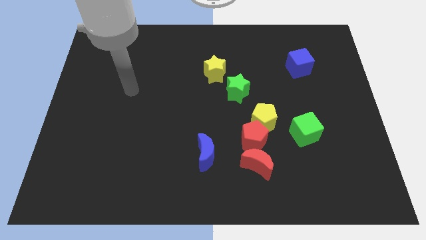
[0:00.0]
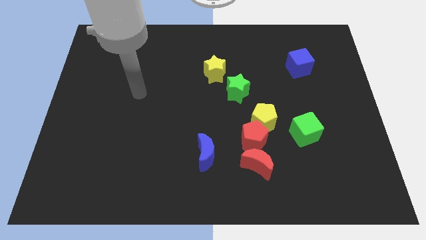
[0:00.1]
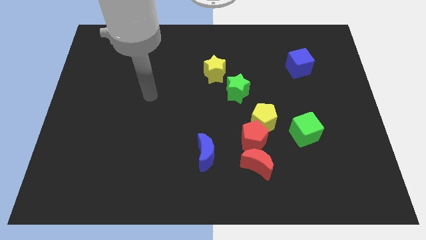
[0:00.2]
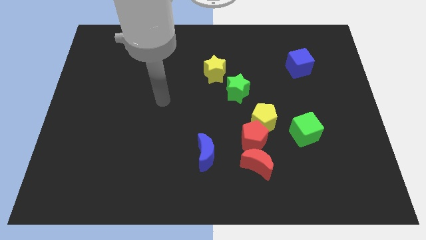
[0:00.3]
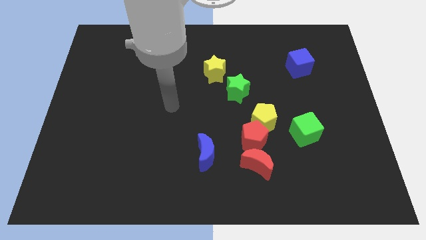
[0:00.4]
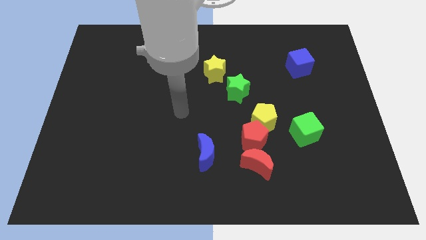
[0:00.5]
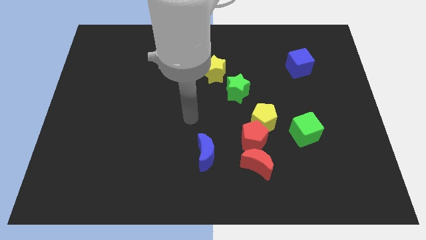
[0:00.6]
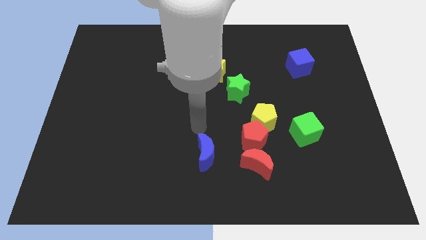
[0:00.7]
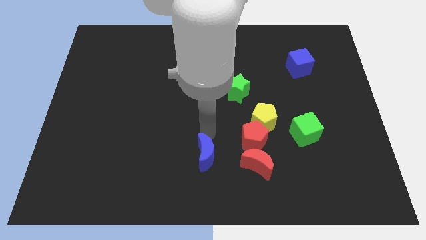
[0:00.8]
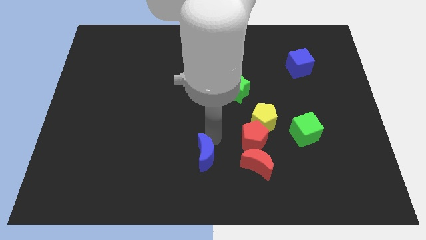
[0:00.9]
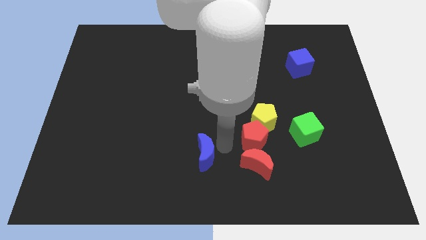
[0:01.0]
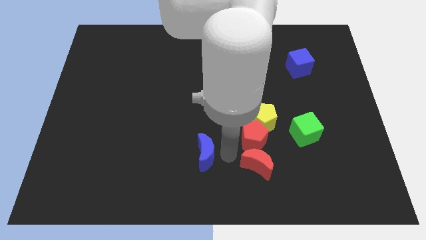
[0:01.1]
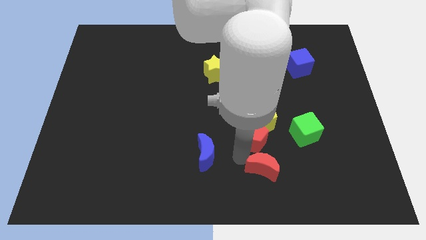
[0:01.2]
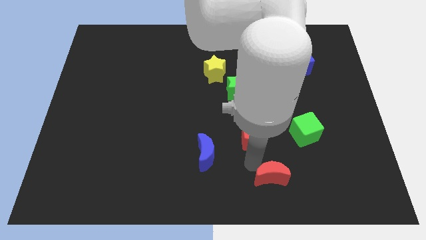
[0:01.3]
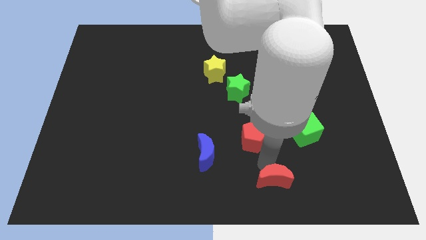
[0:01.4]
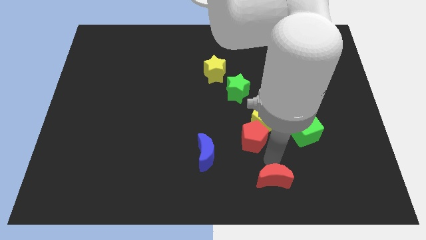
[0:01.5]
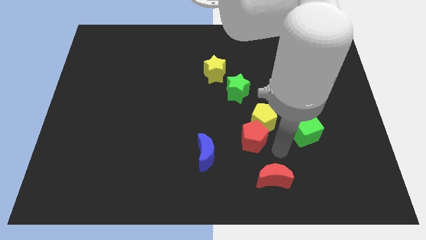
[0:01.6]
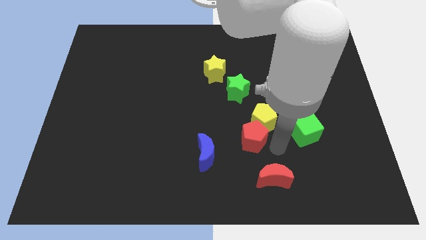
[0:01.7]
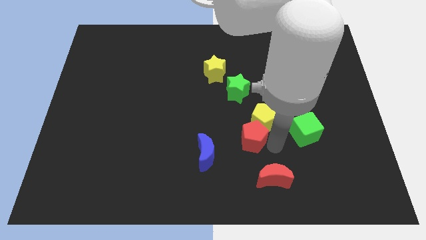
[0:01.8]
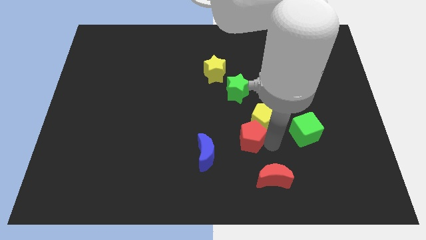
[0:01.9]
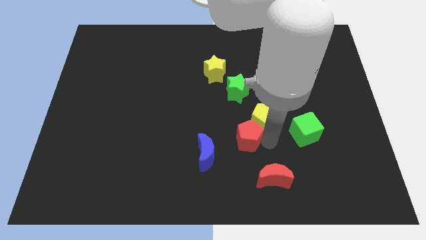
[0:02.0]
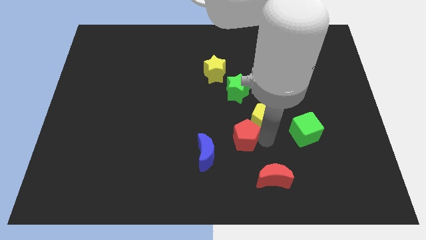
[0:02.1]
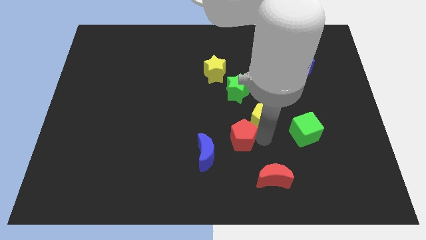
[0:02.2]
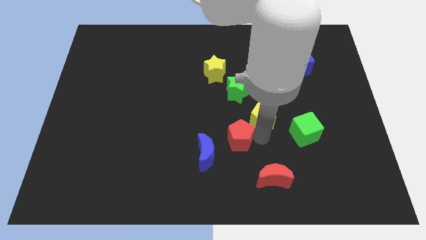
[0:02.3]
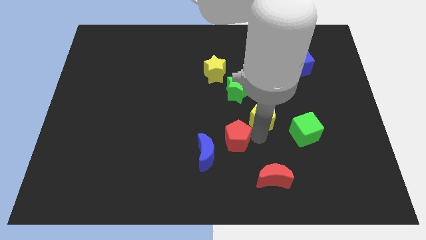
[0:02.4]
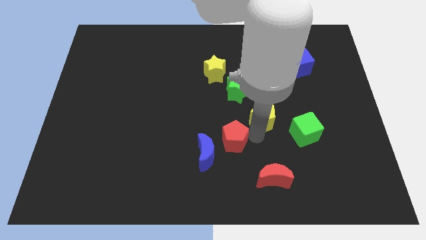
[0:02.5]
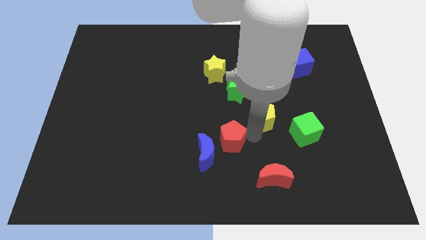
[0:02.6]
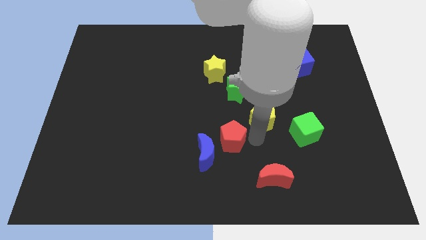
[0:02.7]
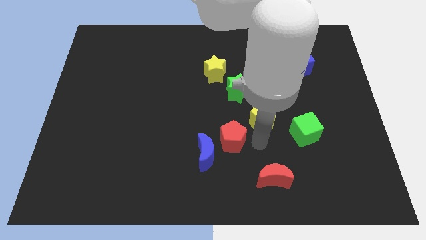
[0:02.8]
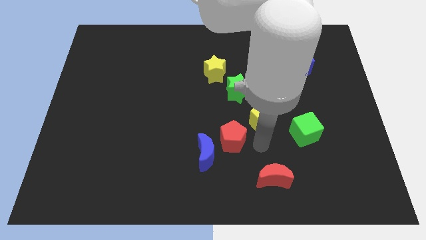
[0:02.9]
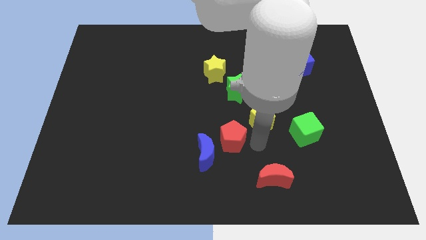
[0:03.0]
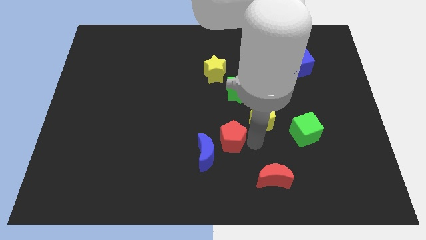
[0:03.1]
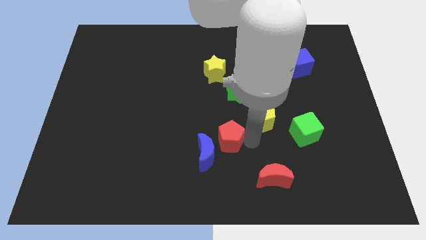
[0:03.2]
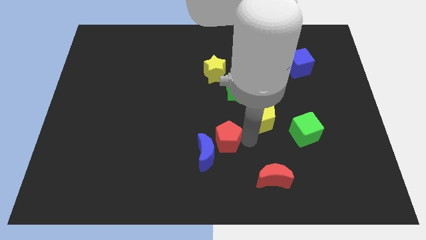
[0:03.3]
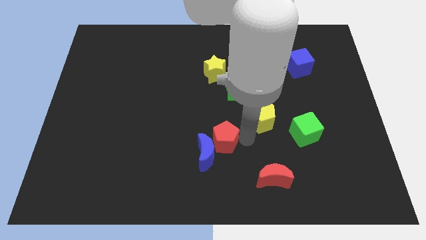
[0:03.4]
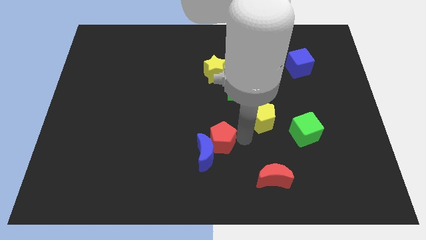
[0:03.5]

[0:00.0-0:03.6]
separate the red pentagon from the yellow pentagon and red moon

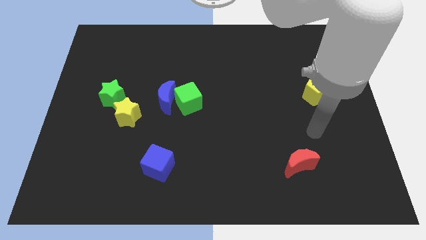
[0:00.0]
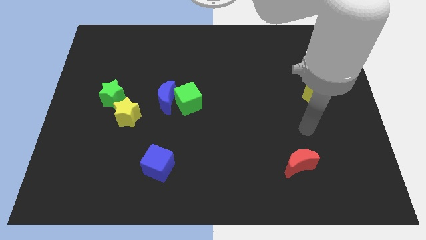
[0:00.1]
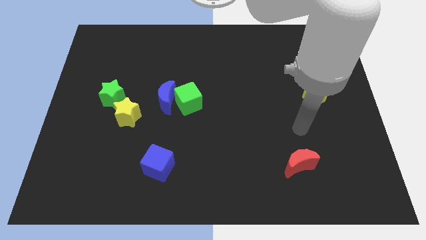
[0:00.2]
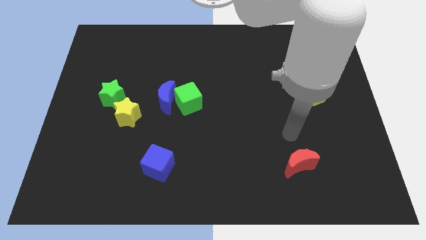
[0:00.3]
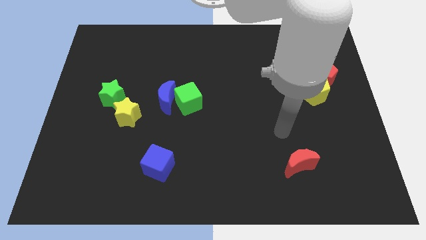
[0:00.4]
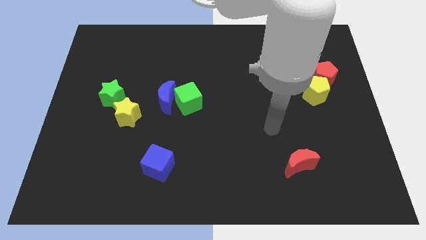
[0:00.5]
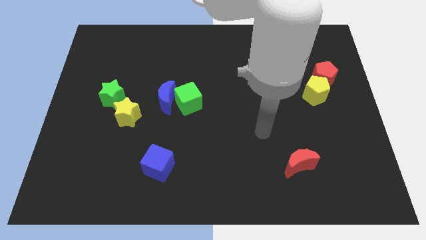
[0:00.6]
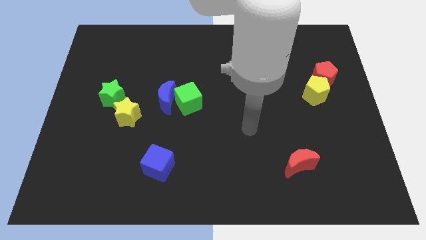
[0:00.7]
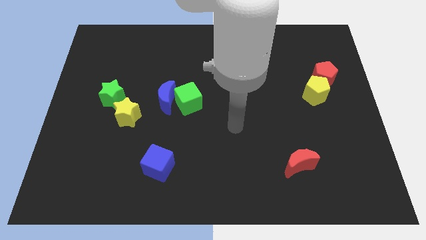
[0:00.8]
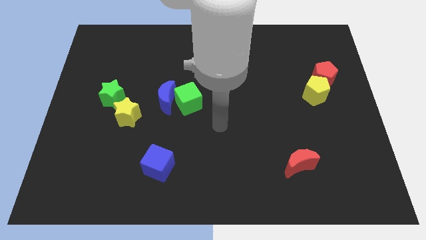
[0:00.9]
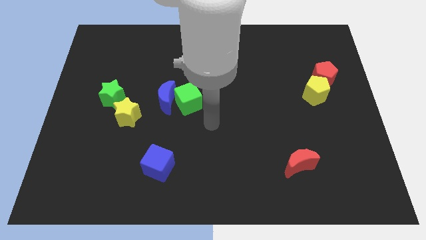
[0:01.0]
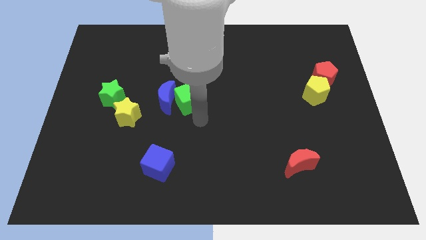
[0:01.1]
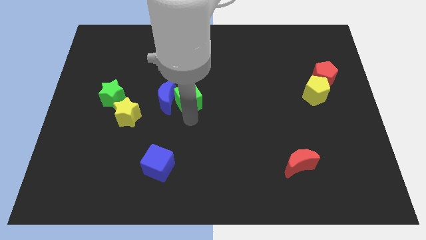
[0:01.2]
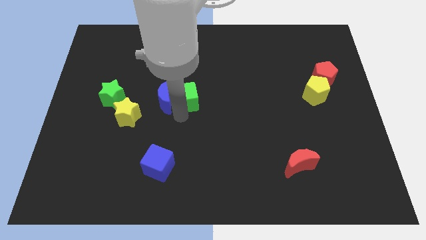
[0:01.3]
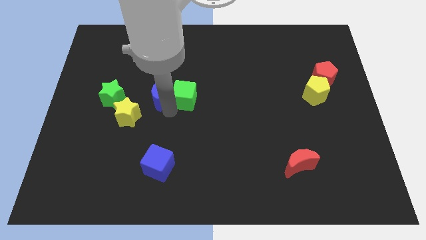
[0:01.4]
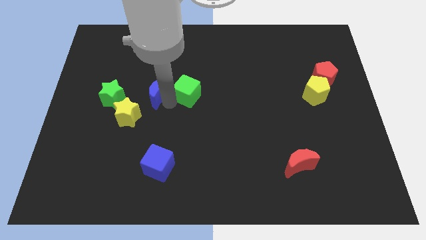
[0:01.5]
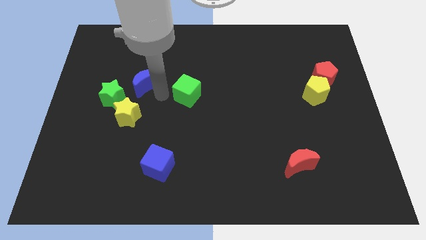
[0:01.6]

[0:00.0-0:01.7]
separate the green cube from the blue moon

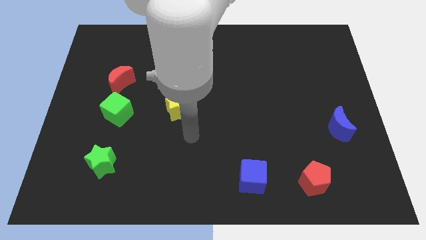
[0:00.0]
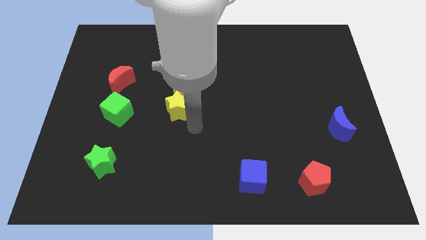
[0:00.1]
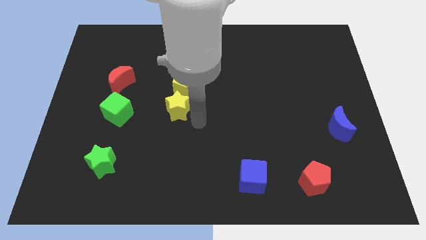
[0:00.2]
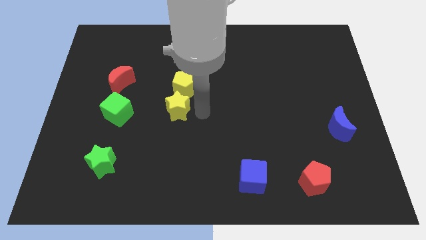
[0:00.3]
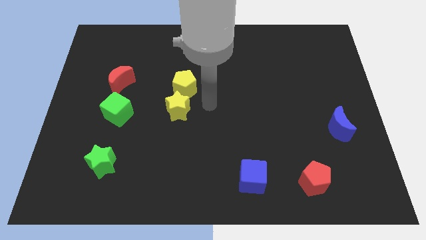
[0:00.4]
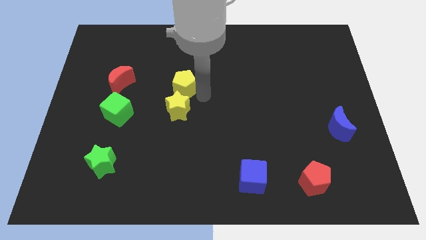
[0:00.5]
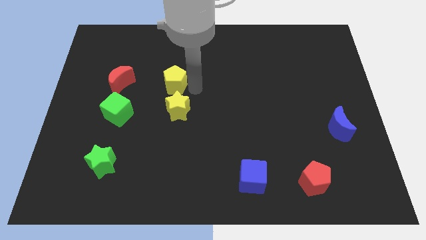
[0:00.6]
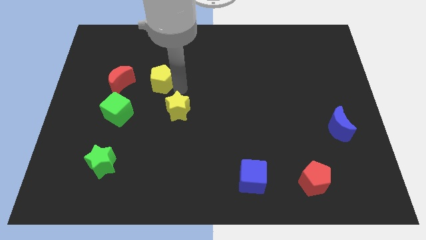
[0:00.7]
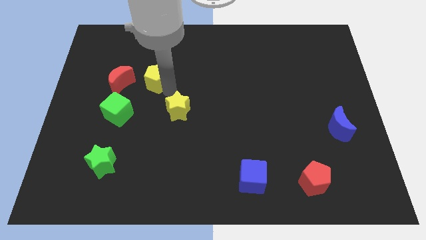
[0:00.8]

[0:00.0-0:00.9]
pull the yellow star apart from the yellow pentagon

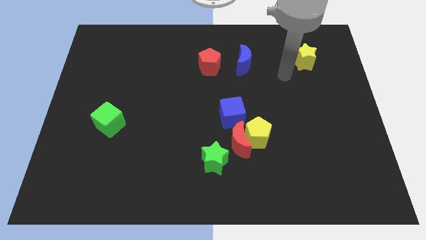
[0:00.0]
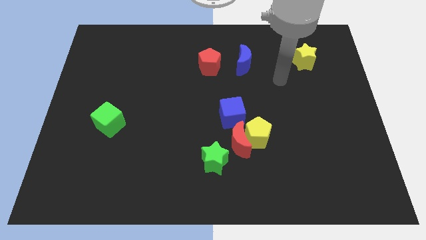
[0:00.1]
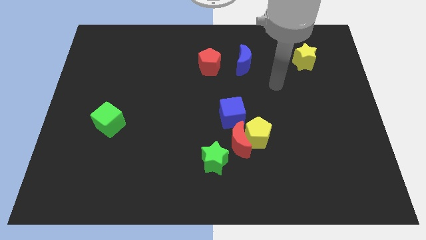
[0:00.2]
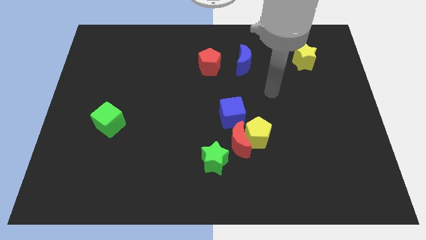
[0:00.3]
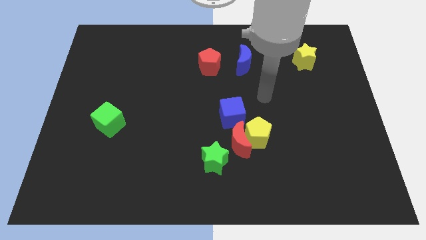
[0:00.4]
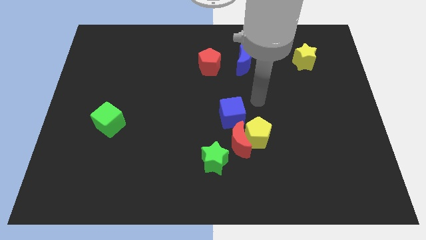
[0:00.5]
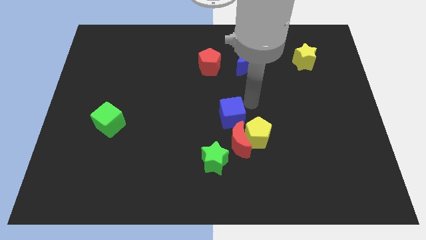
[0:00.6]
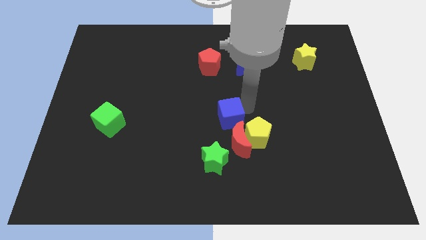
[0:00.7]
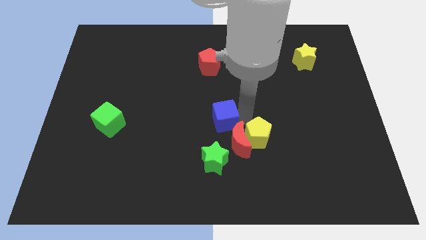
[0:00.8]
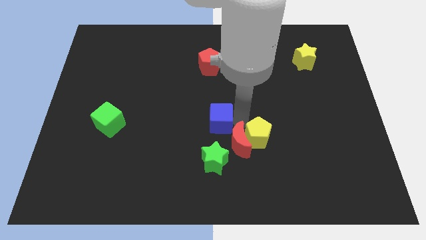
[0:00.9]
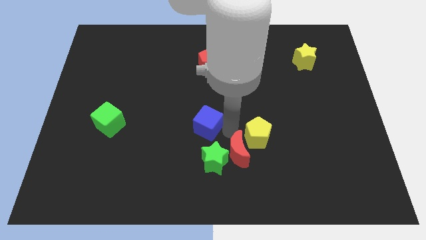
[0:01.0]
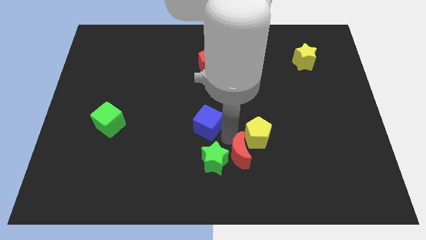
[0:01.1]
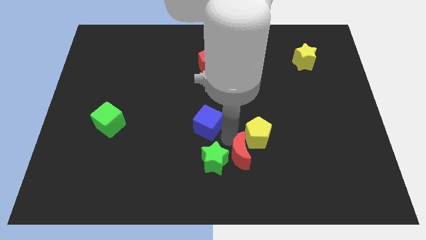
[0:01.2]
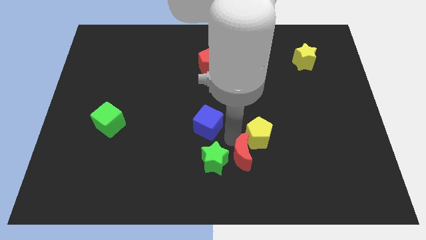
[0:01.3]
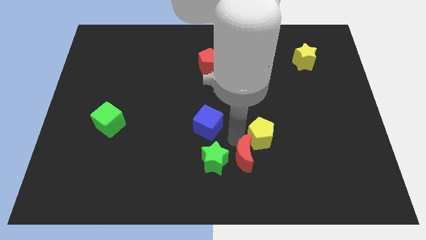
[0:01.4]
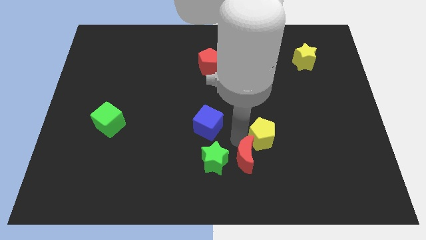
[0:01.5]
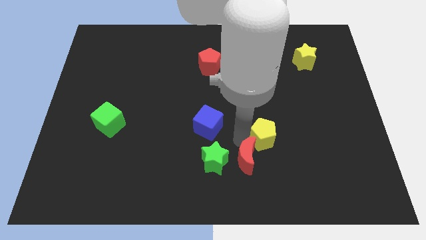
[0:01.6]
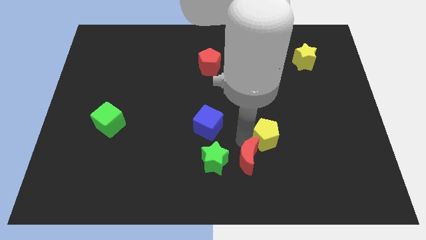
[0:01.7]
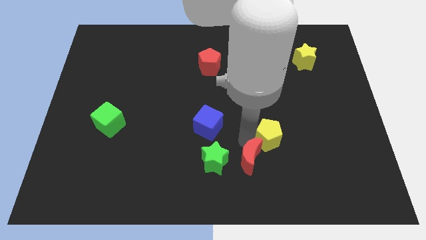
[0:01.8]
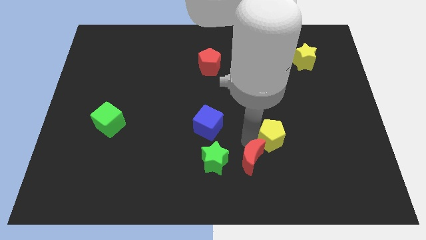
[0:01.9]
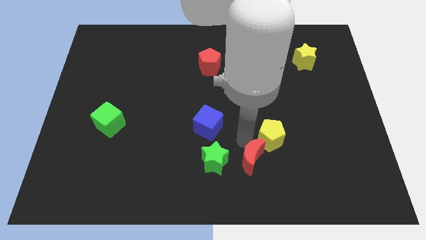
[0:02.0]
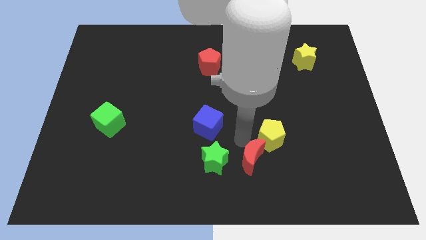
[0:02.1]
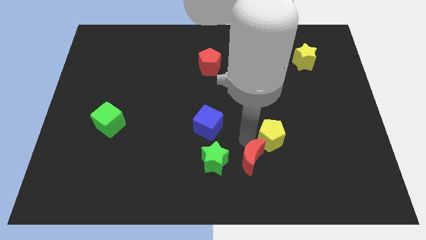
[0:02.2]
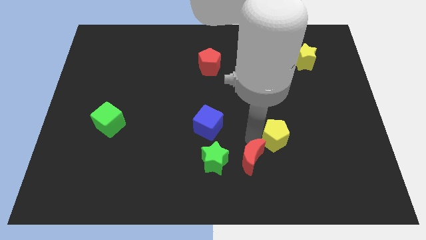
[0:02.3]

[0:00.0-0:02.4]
pull the yellow pentagon apart from the red moon and blue cube

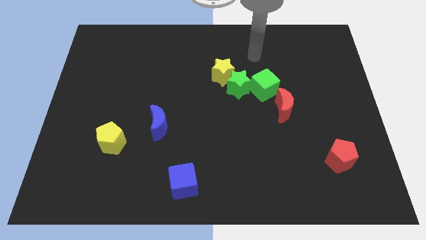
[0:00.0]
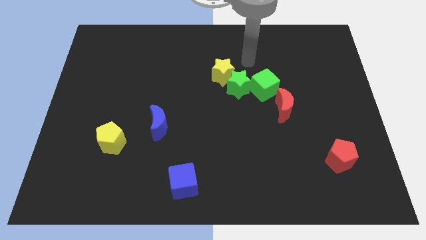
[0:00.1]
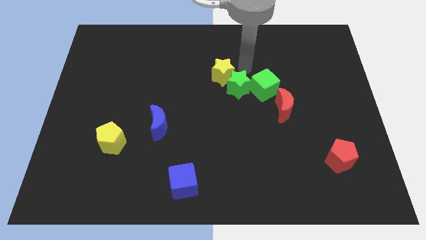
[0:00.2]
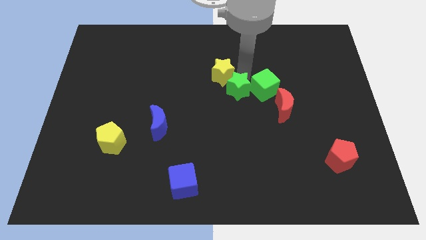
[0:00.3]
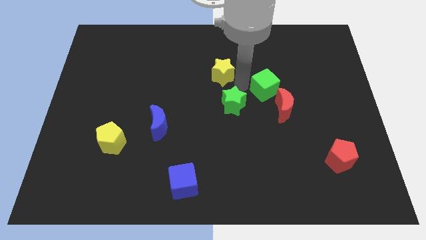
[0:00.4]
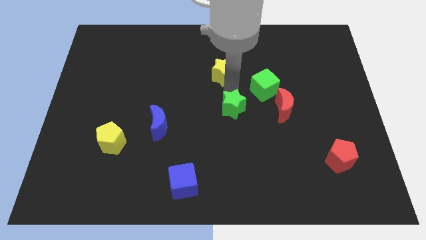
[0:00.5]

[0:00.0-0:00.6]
move the yellow star away from the green star

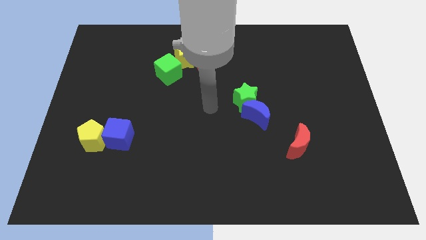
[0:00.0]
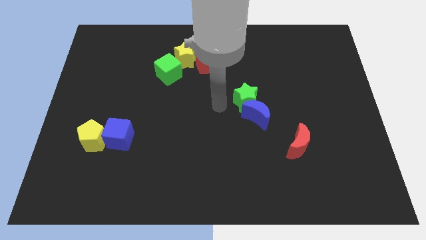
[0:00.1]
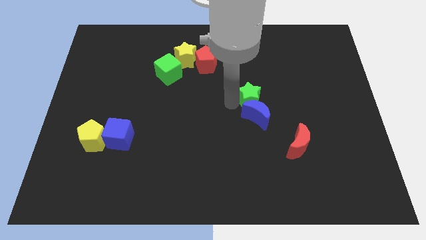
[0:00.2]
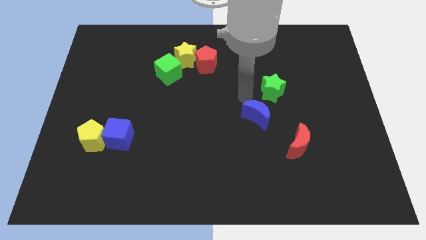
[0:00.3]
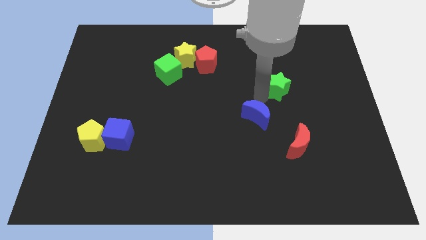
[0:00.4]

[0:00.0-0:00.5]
separate the blue moon from the green star
